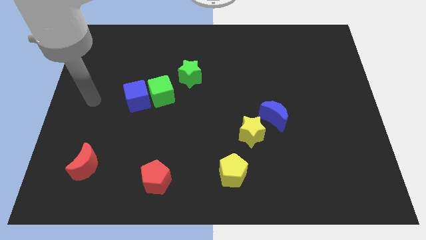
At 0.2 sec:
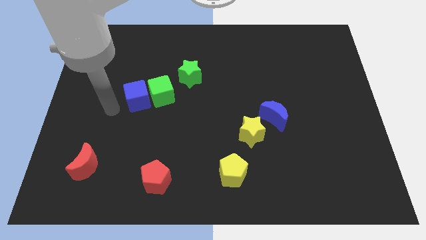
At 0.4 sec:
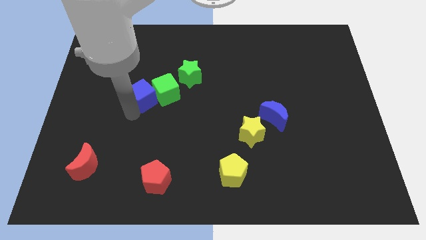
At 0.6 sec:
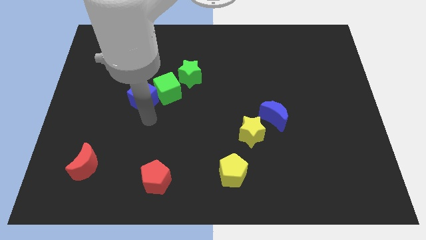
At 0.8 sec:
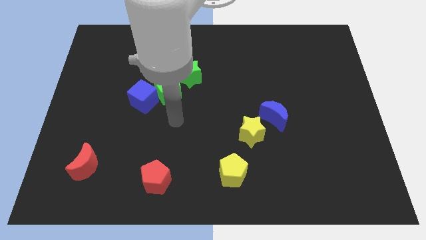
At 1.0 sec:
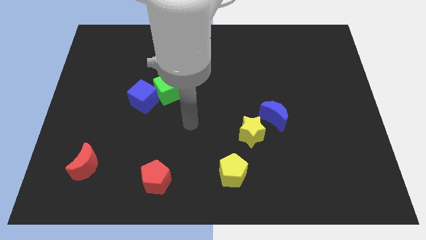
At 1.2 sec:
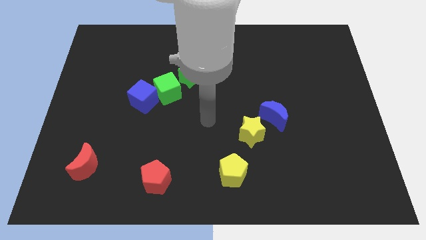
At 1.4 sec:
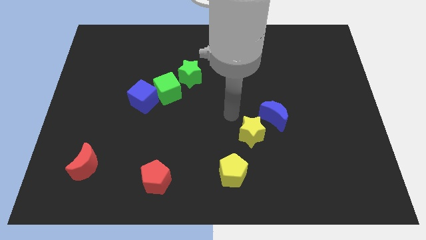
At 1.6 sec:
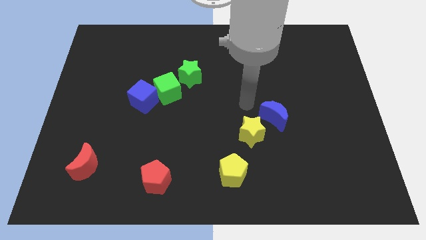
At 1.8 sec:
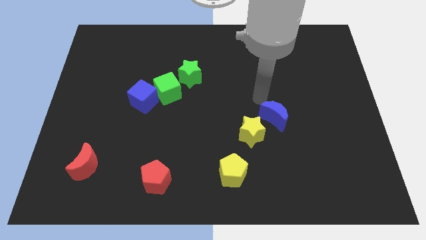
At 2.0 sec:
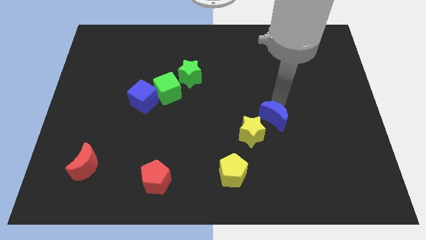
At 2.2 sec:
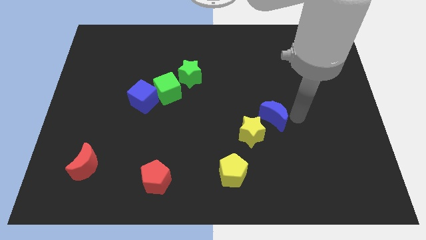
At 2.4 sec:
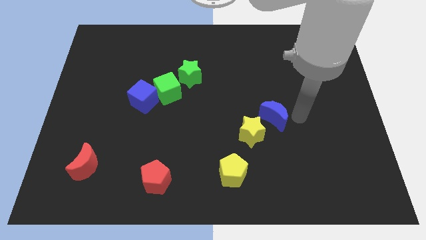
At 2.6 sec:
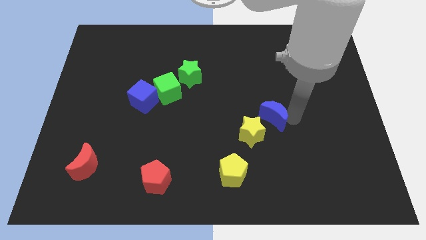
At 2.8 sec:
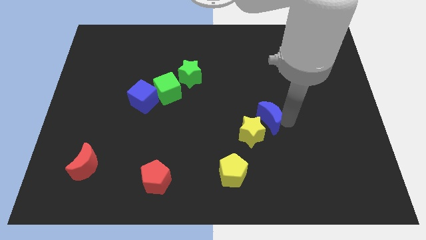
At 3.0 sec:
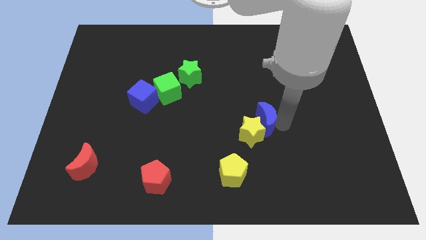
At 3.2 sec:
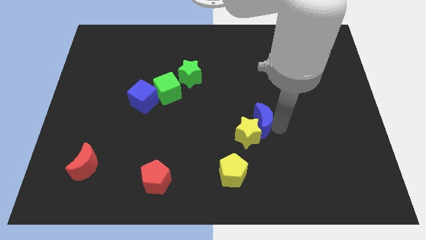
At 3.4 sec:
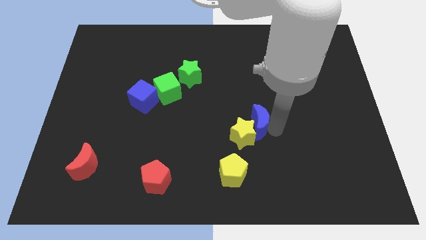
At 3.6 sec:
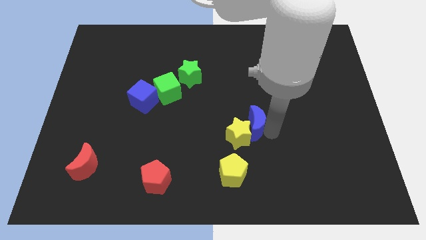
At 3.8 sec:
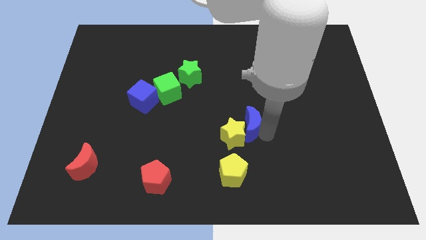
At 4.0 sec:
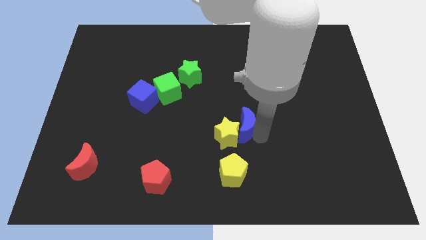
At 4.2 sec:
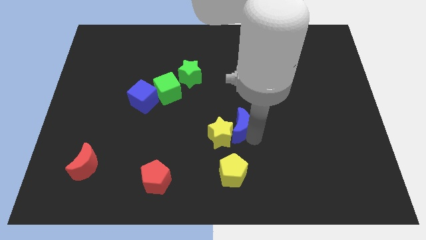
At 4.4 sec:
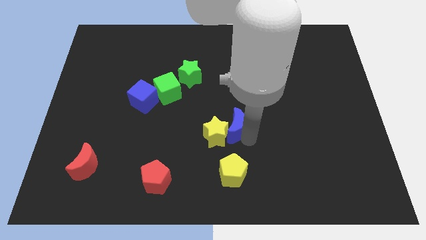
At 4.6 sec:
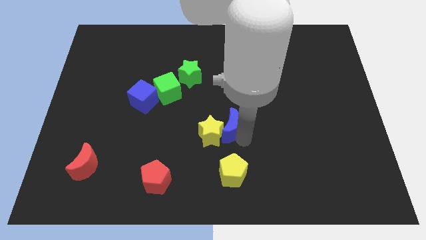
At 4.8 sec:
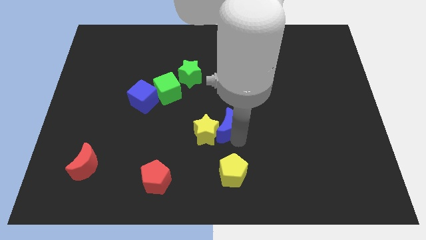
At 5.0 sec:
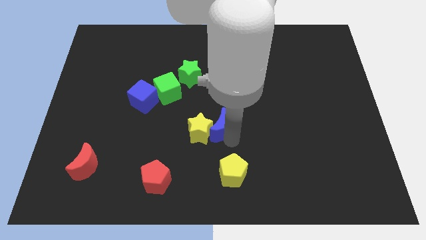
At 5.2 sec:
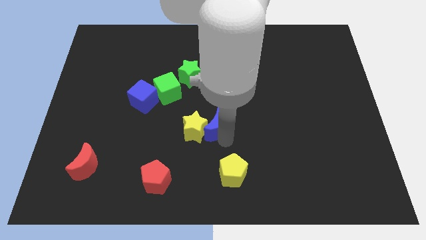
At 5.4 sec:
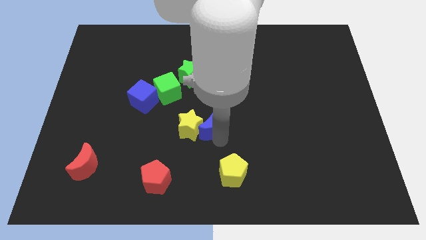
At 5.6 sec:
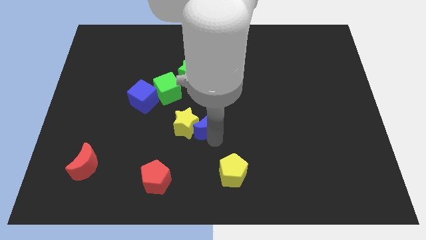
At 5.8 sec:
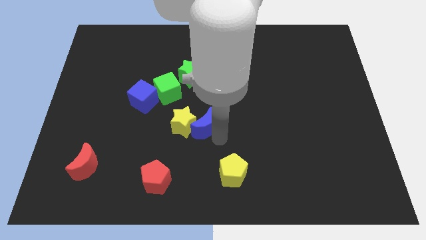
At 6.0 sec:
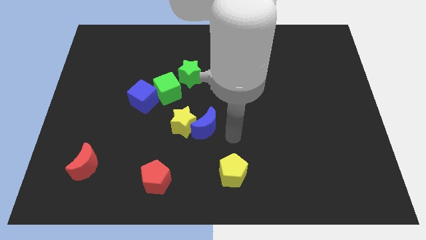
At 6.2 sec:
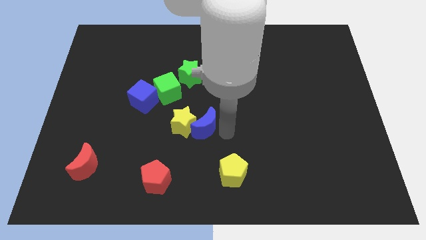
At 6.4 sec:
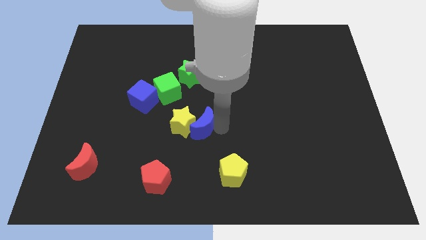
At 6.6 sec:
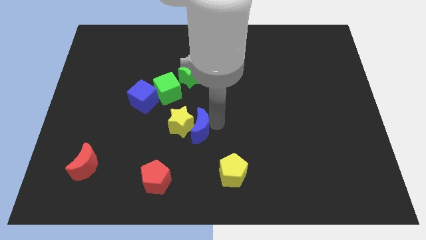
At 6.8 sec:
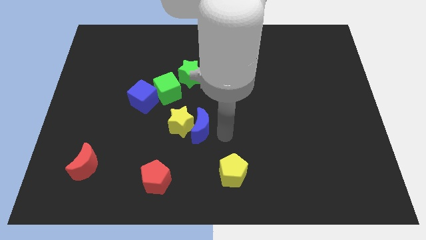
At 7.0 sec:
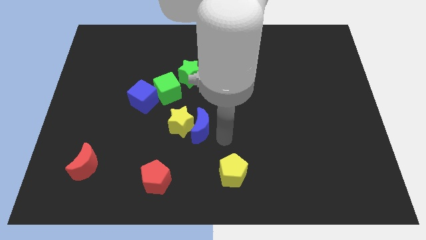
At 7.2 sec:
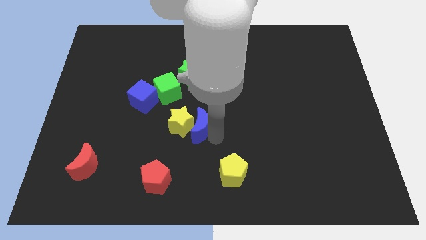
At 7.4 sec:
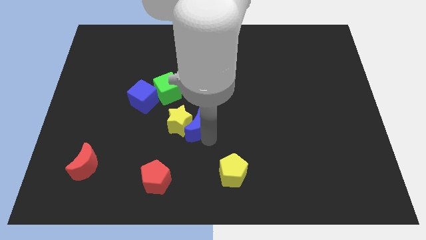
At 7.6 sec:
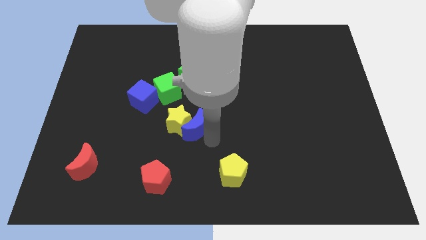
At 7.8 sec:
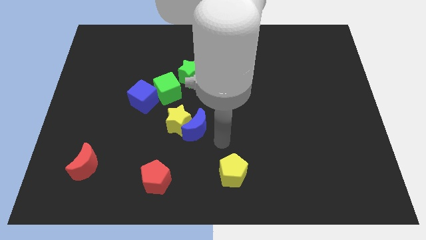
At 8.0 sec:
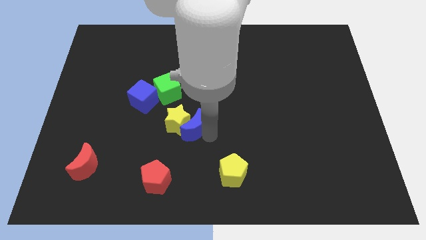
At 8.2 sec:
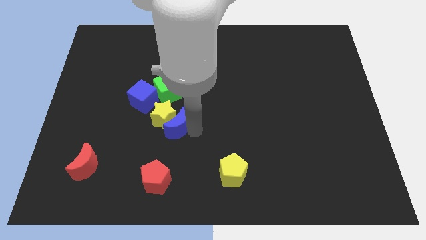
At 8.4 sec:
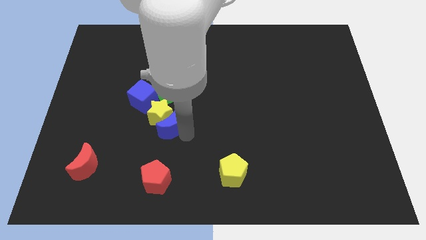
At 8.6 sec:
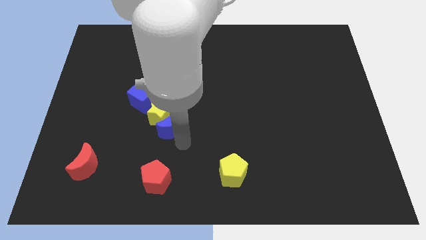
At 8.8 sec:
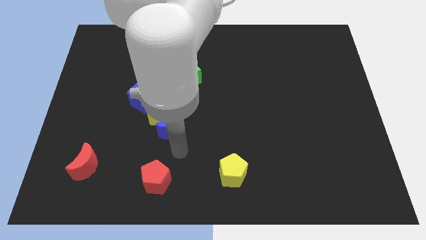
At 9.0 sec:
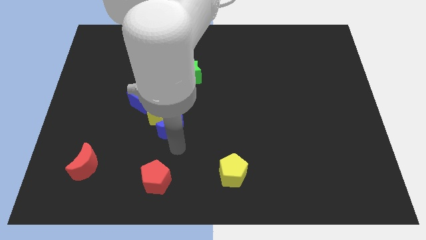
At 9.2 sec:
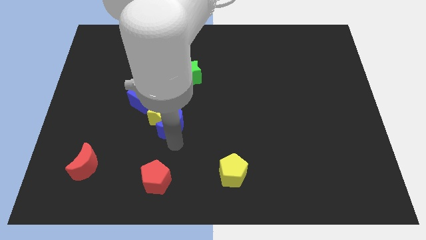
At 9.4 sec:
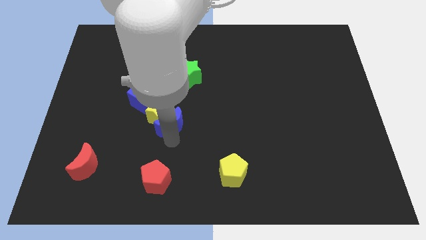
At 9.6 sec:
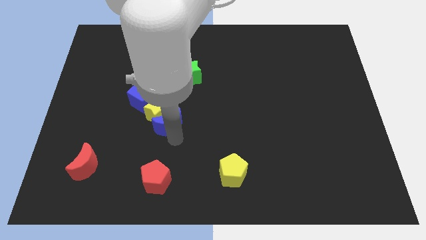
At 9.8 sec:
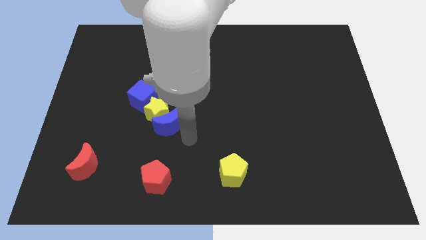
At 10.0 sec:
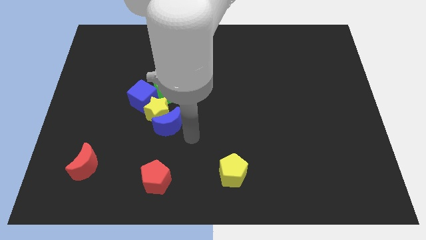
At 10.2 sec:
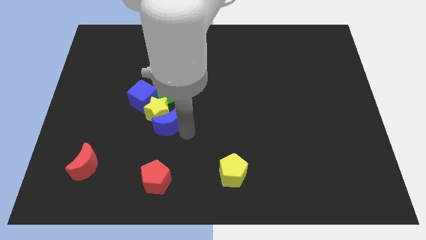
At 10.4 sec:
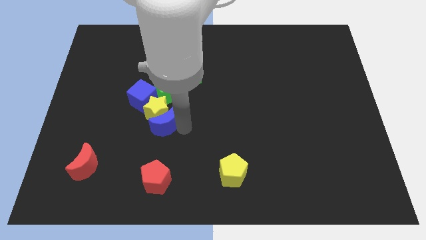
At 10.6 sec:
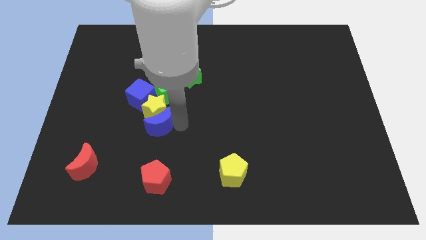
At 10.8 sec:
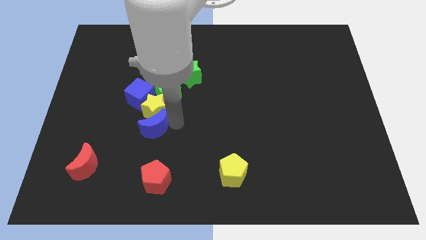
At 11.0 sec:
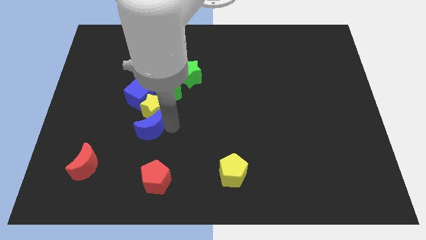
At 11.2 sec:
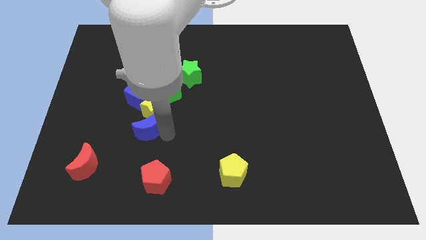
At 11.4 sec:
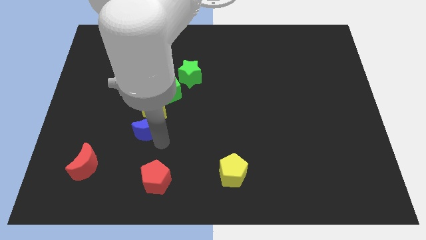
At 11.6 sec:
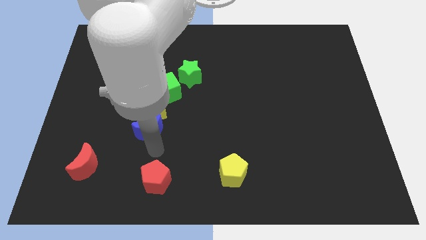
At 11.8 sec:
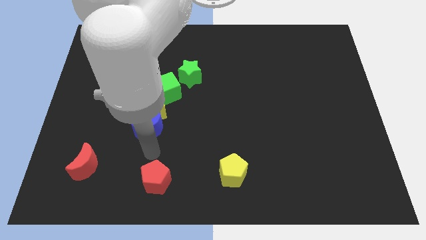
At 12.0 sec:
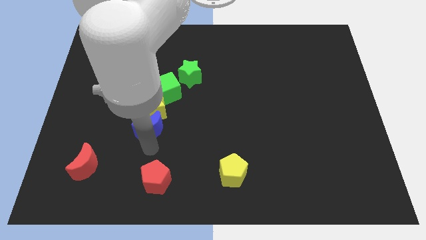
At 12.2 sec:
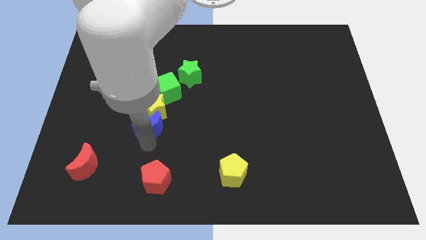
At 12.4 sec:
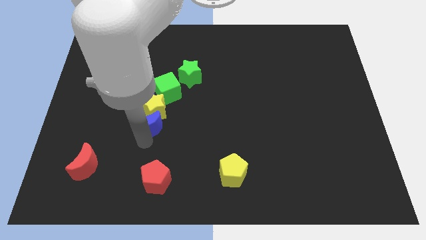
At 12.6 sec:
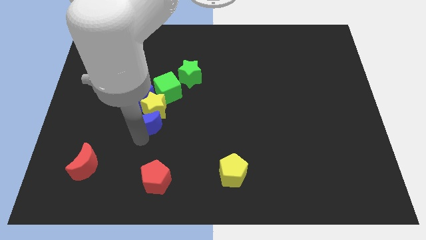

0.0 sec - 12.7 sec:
put the blue moon to the bottom left side of the green cube

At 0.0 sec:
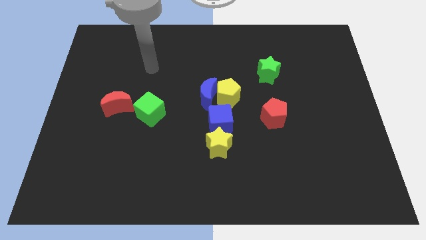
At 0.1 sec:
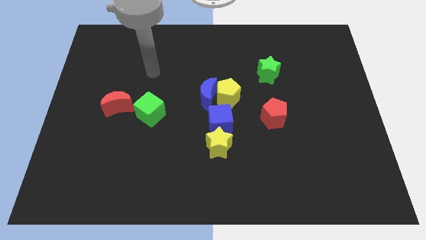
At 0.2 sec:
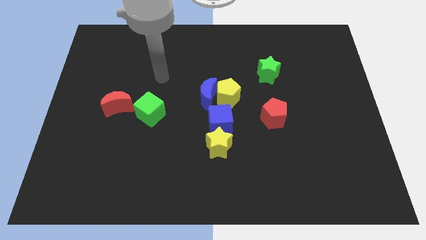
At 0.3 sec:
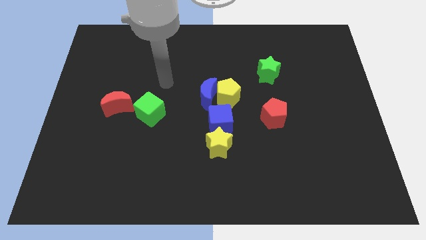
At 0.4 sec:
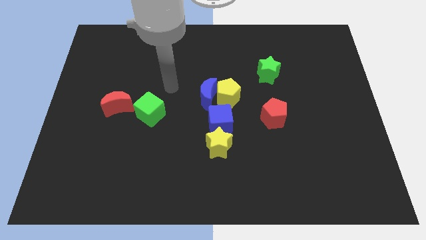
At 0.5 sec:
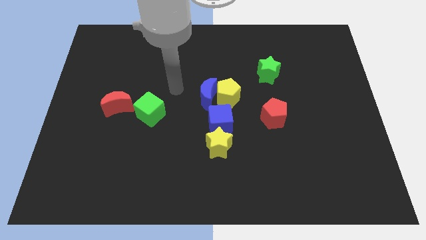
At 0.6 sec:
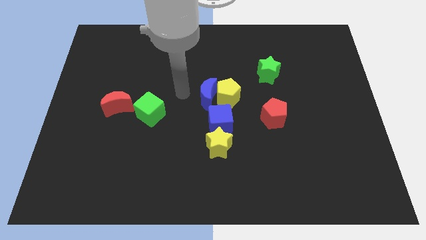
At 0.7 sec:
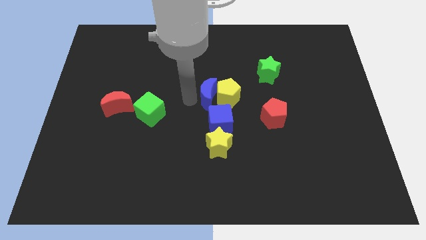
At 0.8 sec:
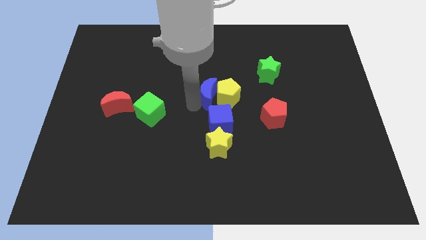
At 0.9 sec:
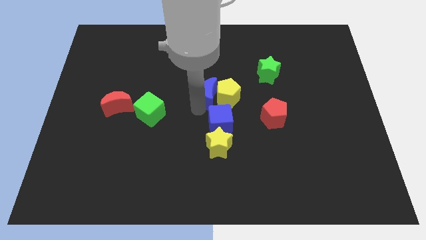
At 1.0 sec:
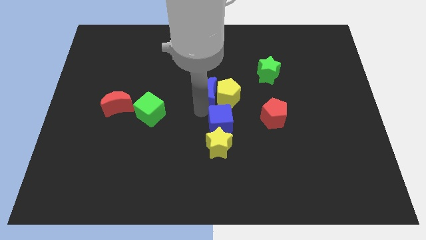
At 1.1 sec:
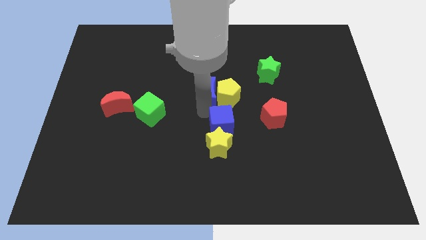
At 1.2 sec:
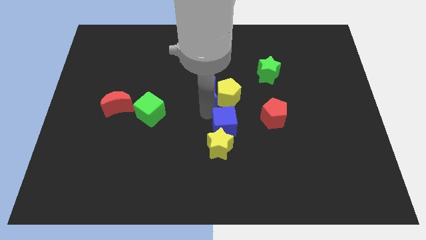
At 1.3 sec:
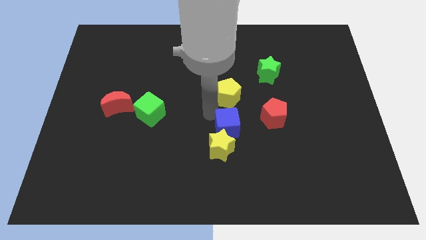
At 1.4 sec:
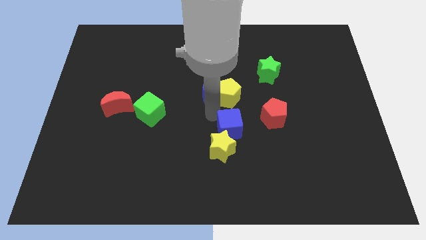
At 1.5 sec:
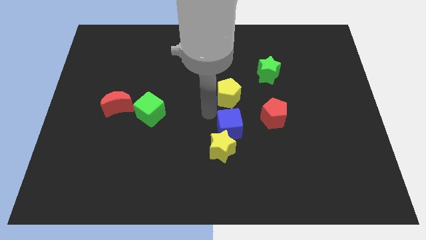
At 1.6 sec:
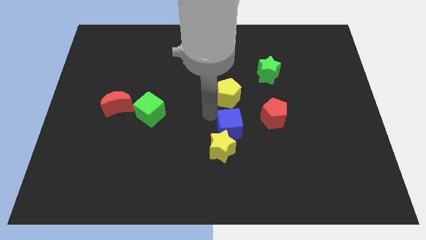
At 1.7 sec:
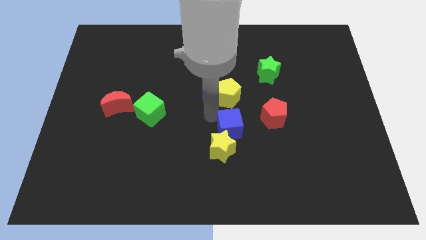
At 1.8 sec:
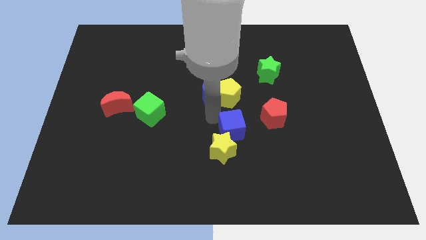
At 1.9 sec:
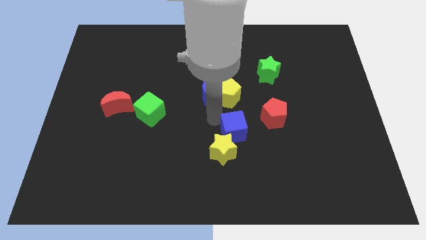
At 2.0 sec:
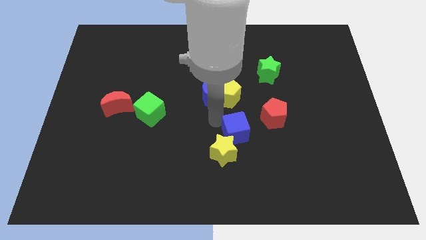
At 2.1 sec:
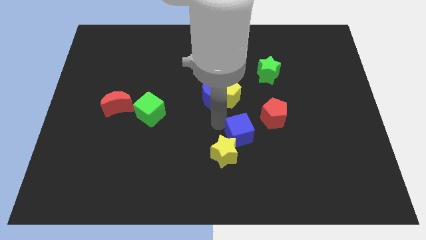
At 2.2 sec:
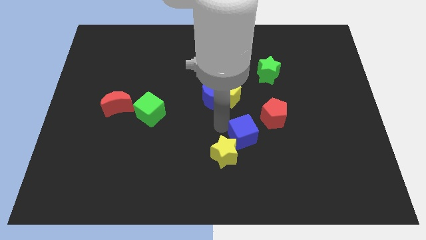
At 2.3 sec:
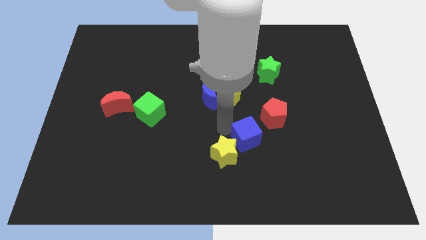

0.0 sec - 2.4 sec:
move the blue cube right of the yellow star
